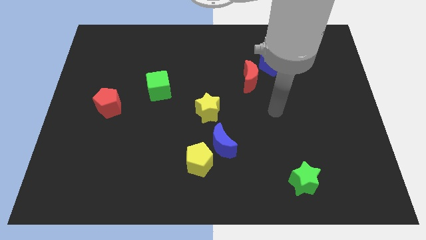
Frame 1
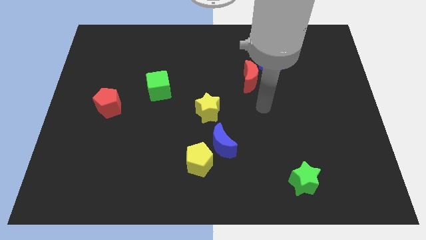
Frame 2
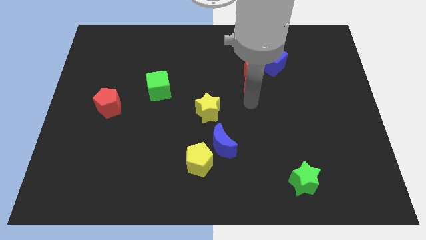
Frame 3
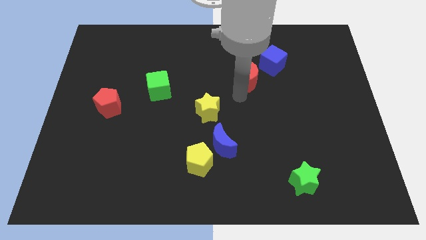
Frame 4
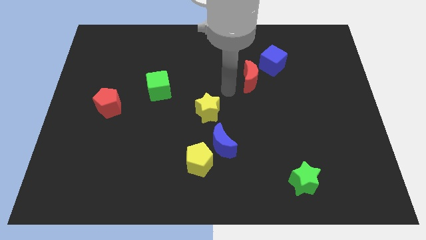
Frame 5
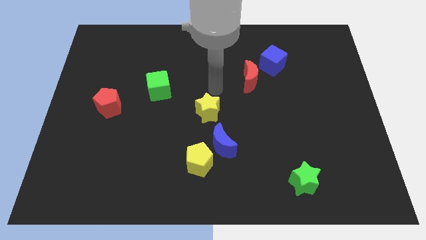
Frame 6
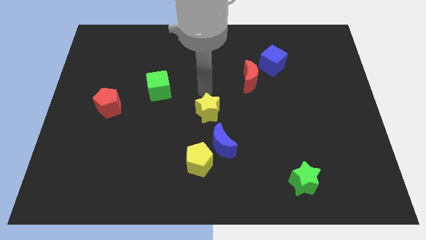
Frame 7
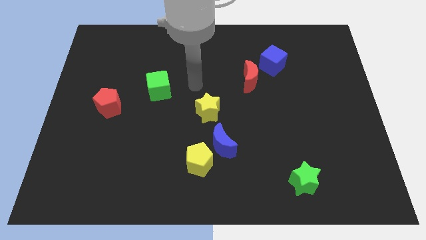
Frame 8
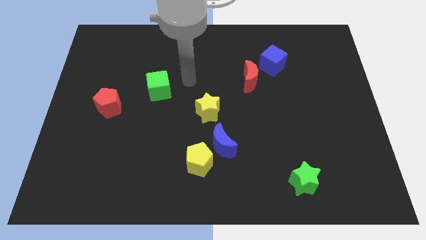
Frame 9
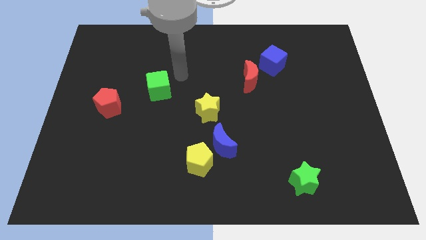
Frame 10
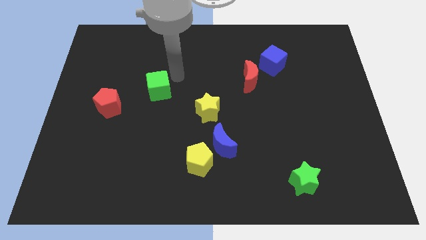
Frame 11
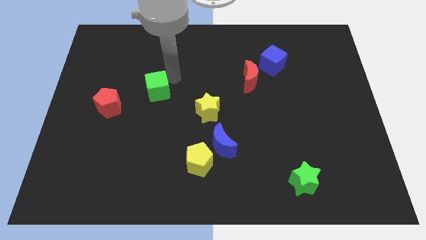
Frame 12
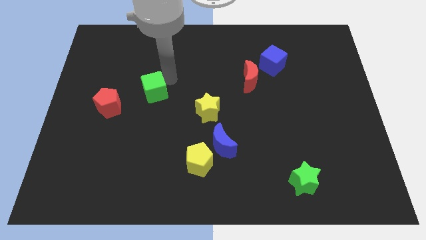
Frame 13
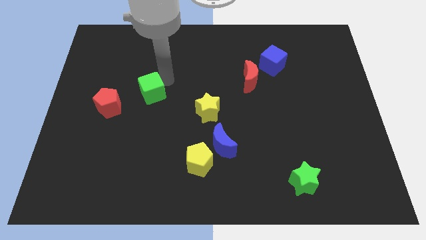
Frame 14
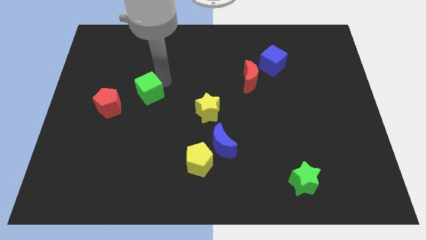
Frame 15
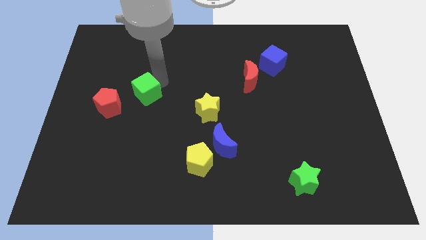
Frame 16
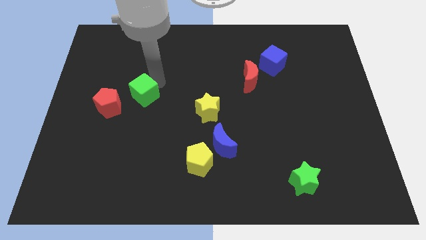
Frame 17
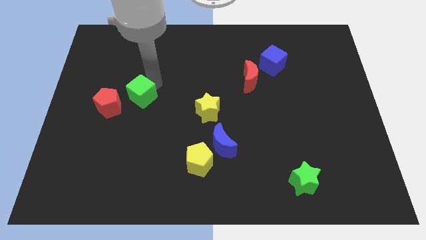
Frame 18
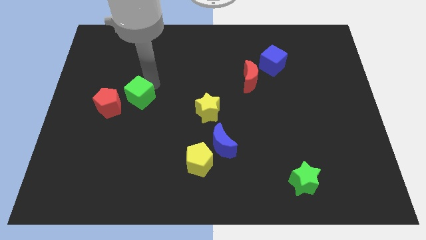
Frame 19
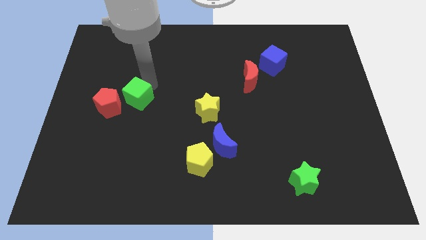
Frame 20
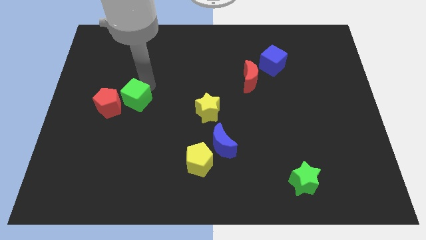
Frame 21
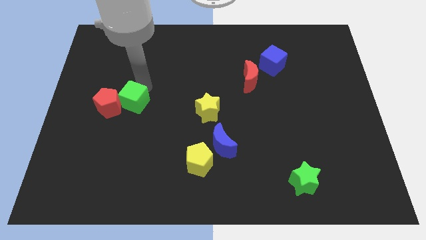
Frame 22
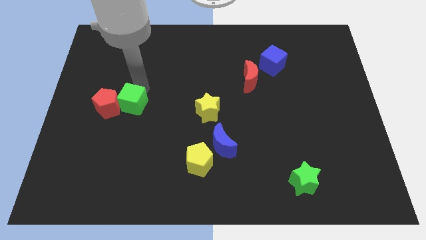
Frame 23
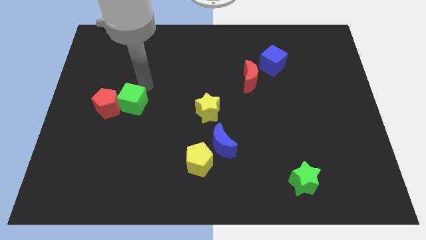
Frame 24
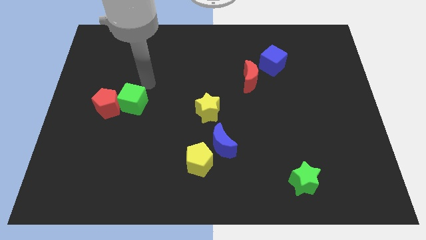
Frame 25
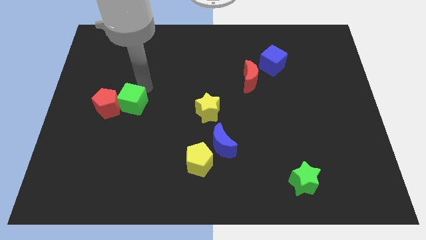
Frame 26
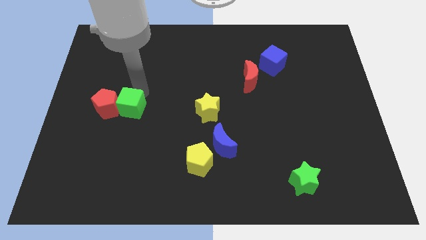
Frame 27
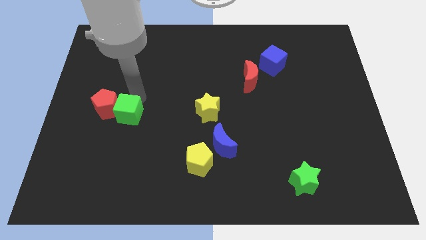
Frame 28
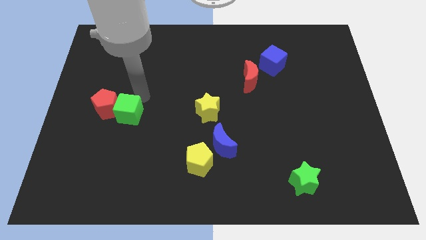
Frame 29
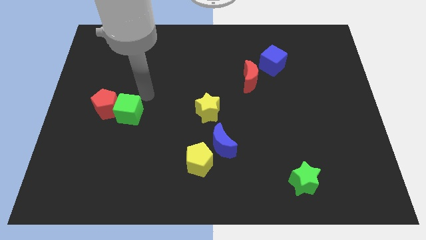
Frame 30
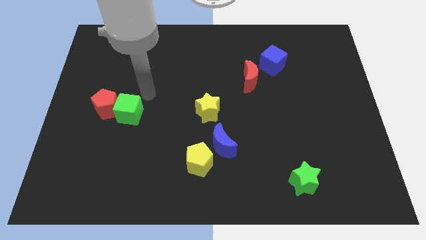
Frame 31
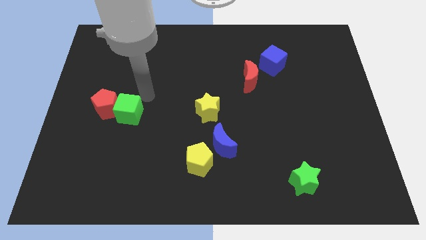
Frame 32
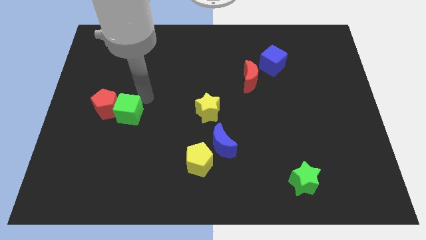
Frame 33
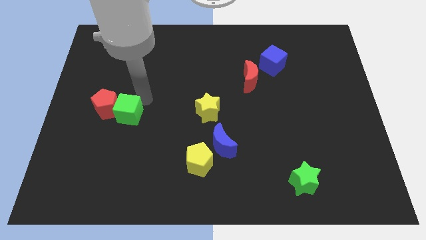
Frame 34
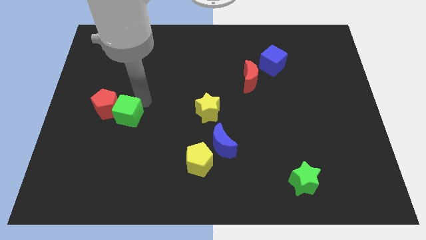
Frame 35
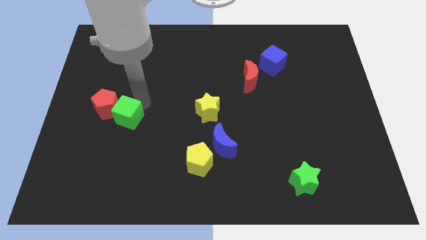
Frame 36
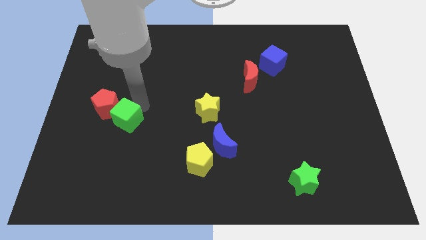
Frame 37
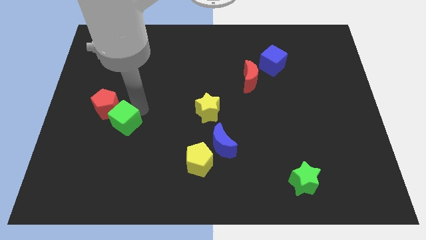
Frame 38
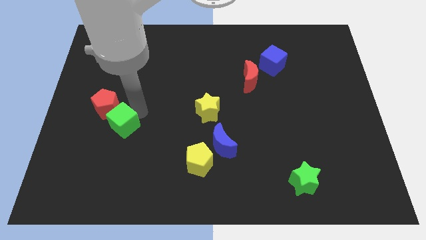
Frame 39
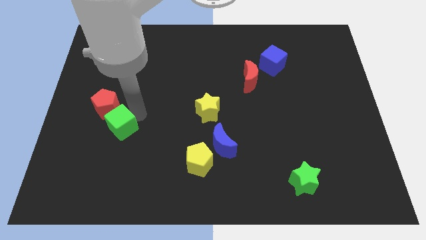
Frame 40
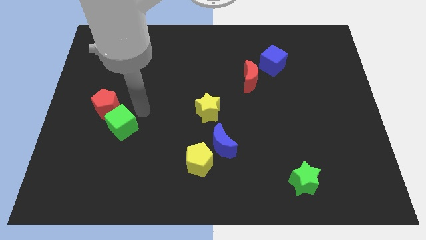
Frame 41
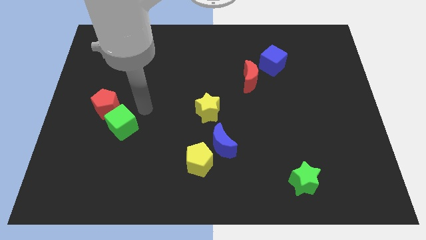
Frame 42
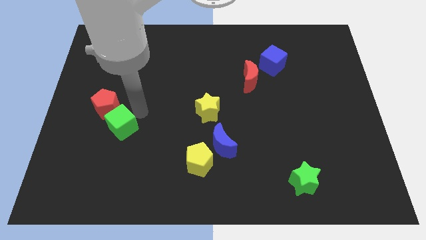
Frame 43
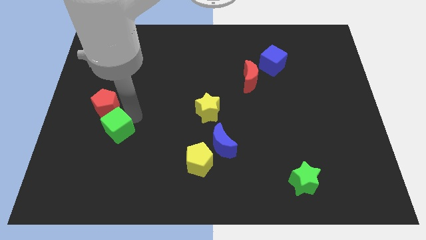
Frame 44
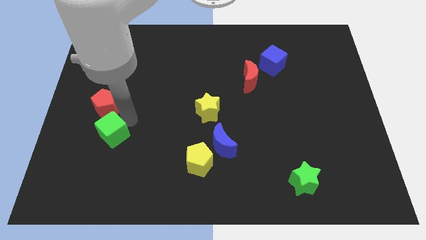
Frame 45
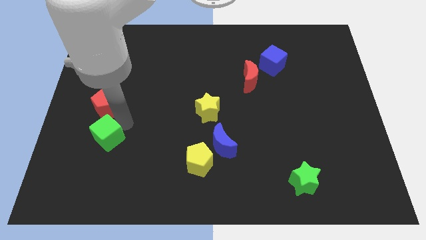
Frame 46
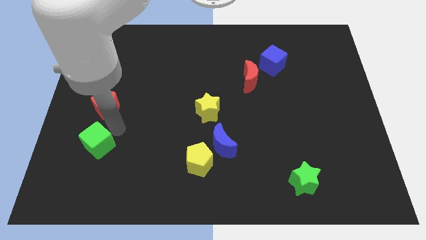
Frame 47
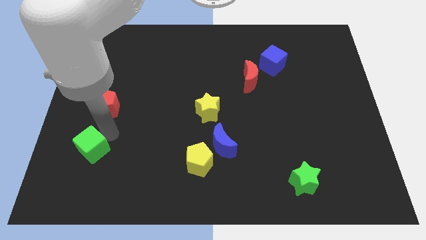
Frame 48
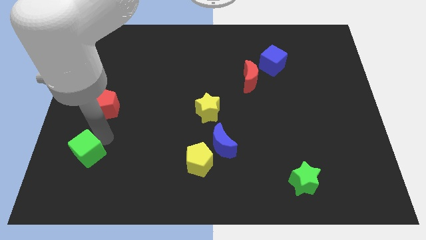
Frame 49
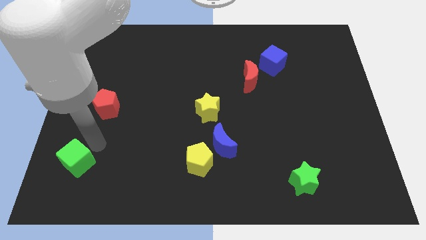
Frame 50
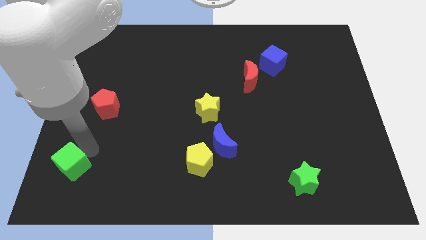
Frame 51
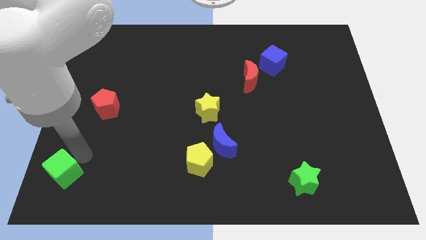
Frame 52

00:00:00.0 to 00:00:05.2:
push the green cube to the bottom left corner
